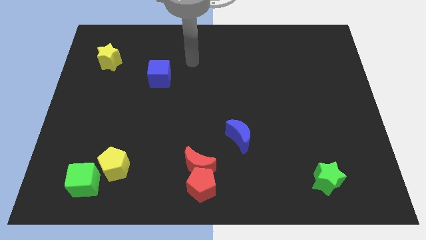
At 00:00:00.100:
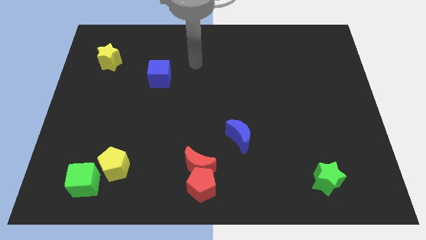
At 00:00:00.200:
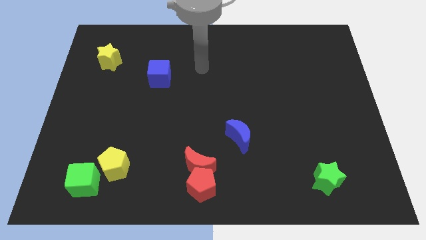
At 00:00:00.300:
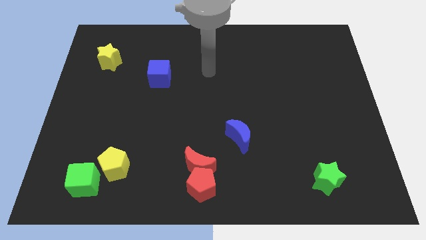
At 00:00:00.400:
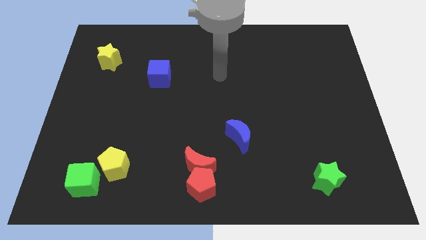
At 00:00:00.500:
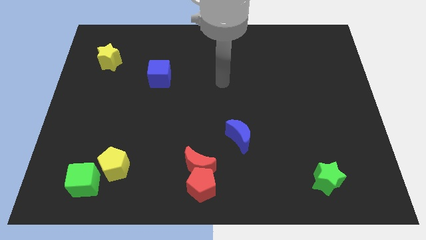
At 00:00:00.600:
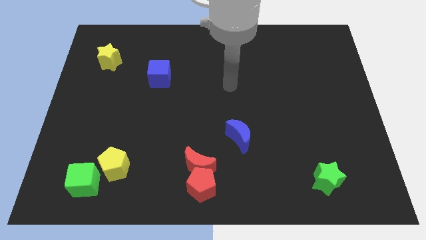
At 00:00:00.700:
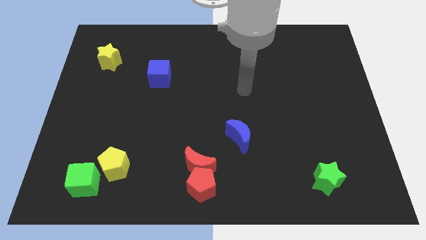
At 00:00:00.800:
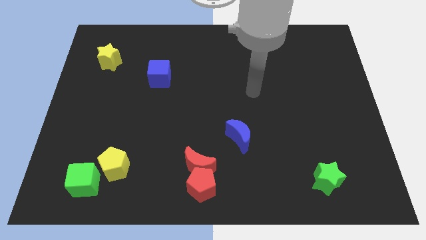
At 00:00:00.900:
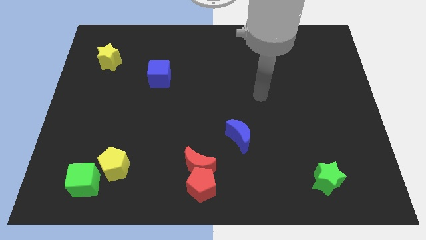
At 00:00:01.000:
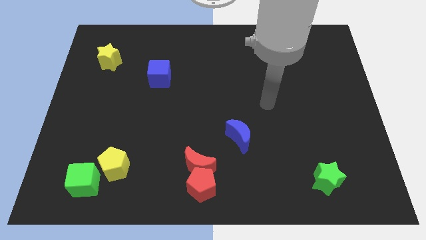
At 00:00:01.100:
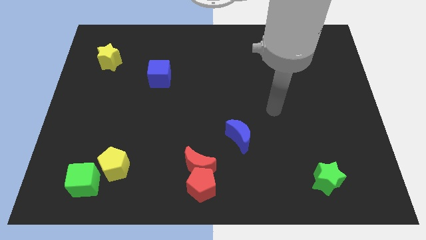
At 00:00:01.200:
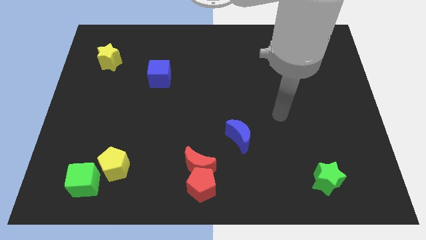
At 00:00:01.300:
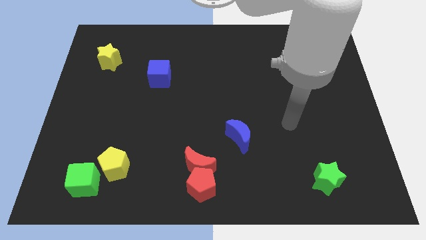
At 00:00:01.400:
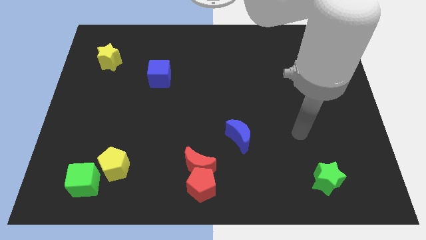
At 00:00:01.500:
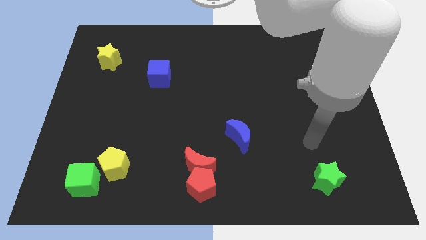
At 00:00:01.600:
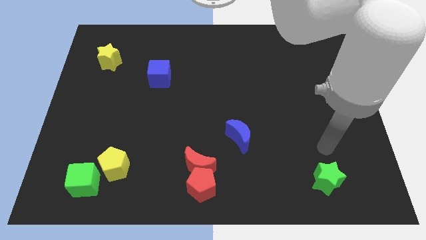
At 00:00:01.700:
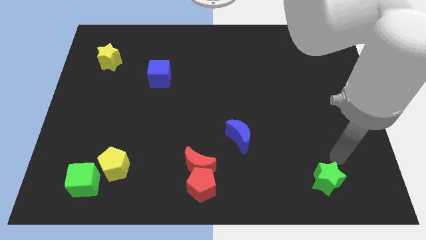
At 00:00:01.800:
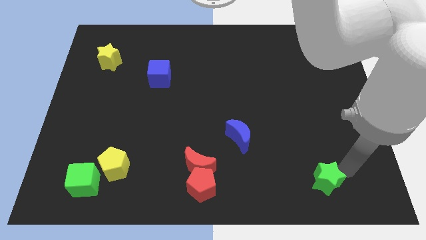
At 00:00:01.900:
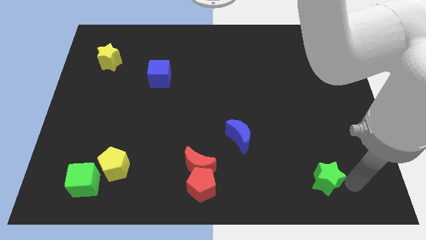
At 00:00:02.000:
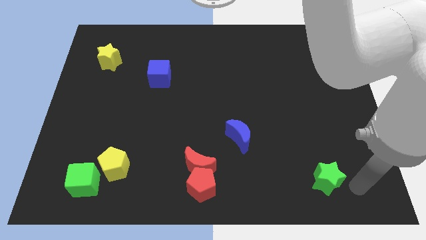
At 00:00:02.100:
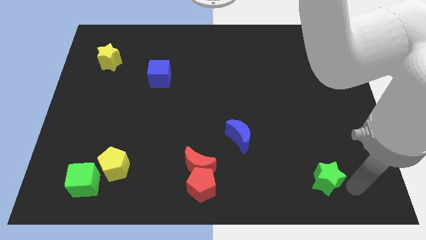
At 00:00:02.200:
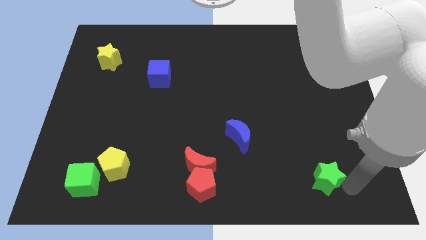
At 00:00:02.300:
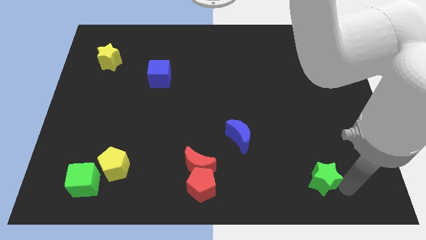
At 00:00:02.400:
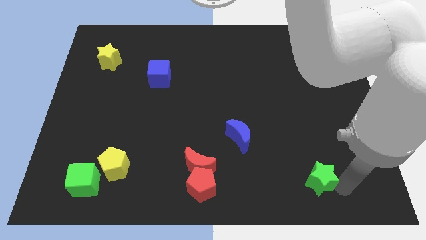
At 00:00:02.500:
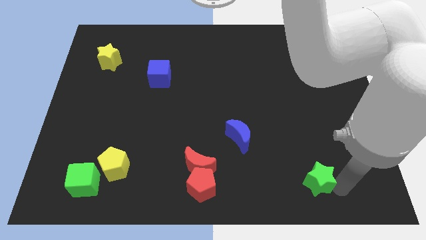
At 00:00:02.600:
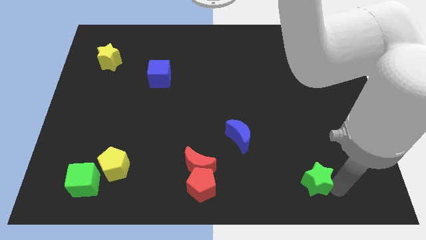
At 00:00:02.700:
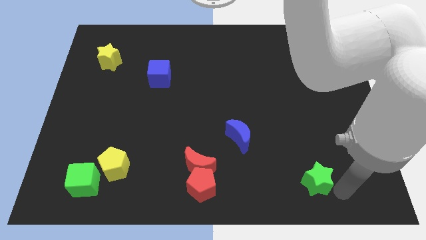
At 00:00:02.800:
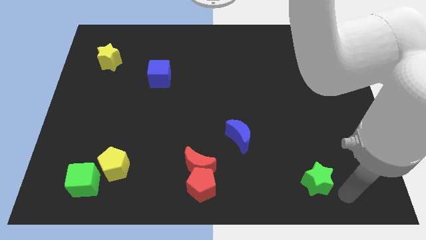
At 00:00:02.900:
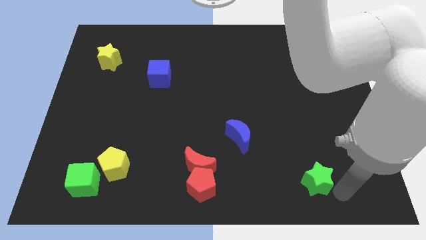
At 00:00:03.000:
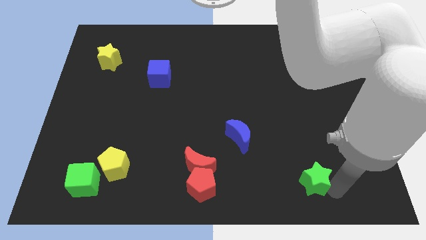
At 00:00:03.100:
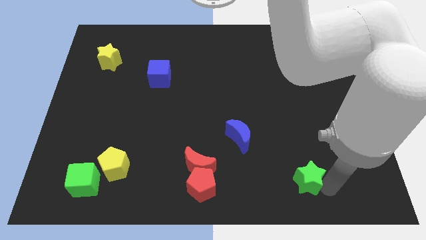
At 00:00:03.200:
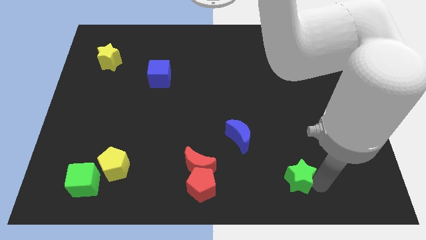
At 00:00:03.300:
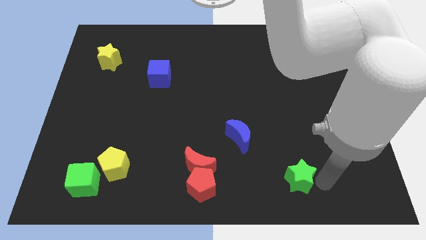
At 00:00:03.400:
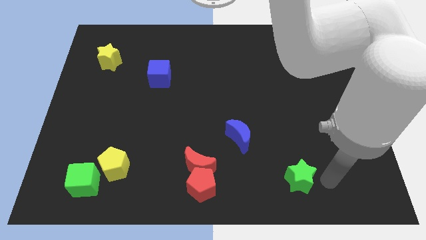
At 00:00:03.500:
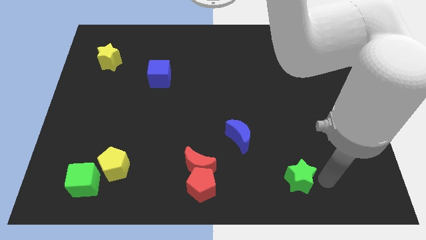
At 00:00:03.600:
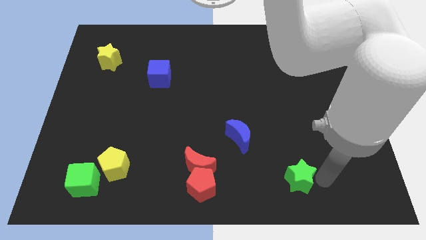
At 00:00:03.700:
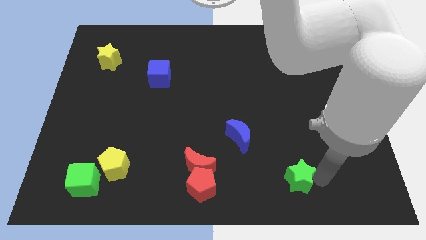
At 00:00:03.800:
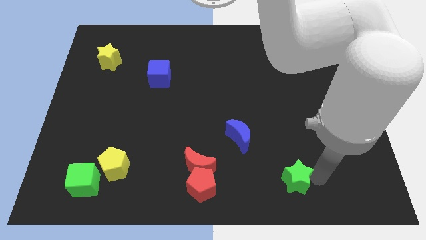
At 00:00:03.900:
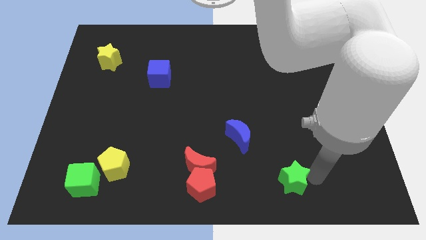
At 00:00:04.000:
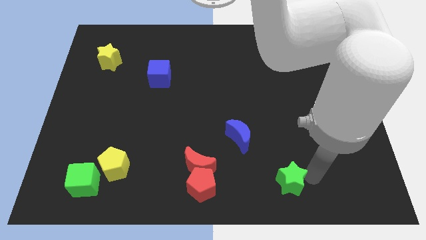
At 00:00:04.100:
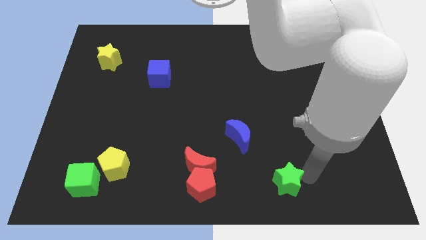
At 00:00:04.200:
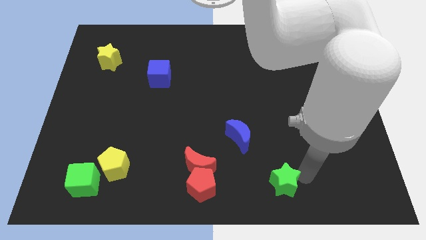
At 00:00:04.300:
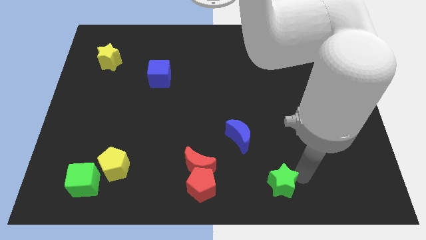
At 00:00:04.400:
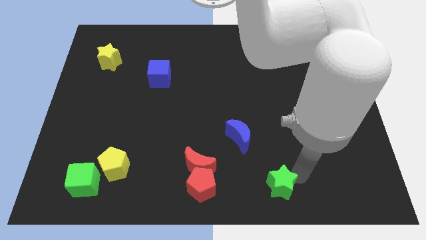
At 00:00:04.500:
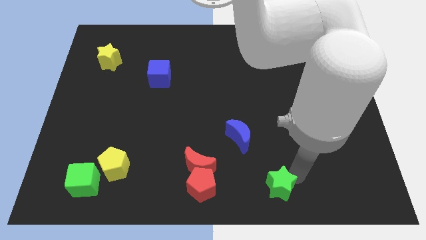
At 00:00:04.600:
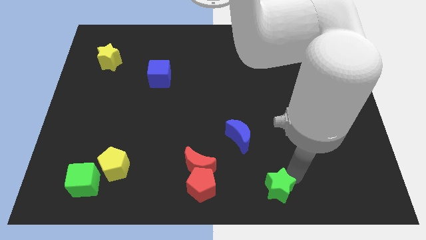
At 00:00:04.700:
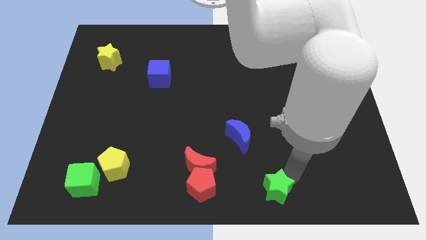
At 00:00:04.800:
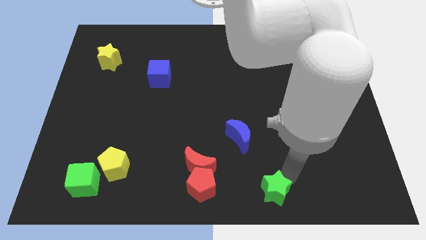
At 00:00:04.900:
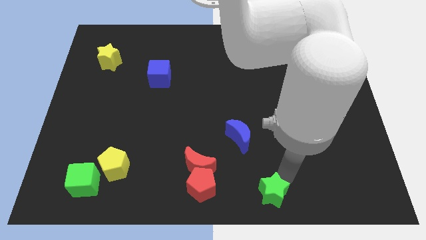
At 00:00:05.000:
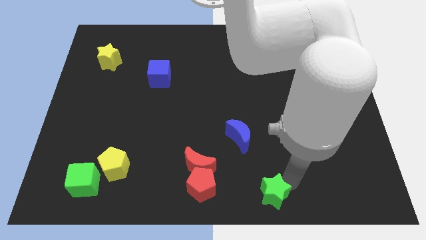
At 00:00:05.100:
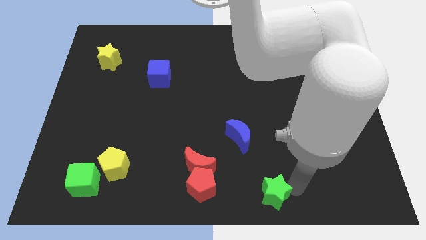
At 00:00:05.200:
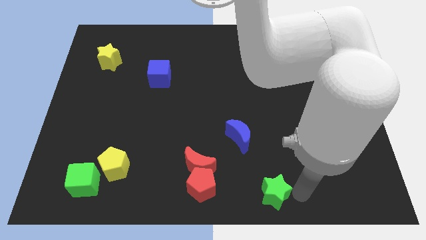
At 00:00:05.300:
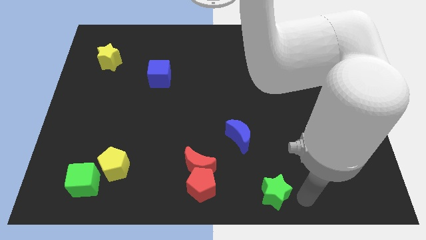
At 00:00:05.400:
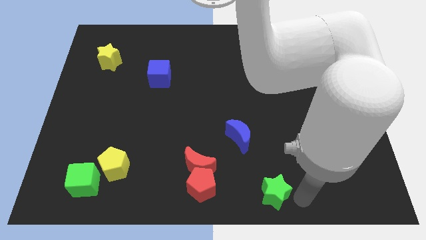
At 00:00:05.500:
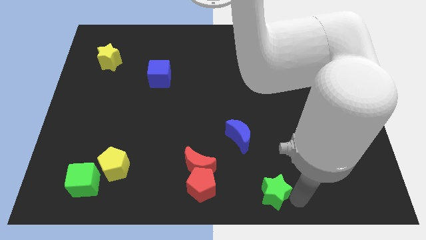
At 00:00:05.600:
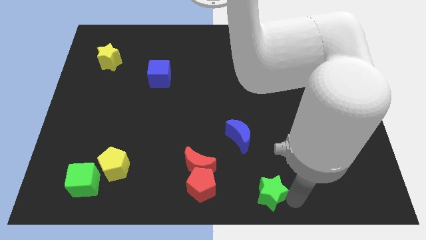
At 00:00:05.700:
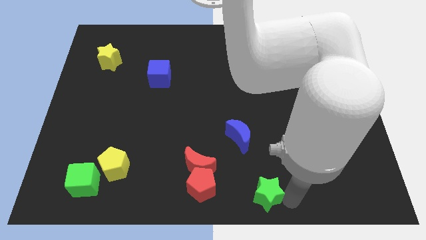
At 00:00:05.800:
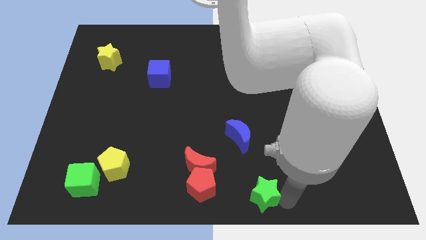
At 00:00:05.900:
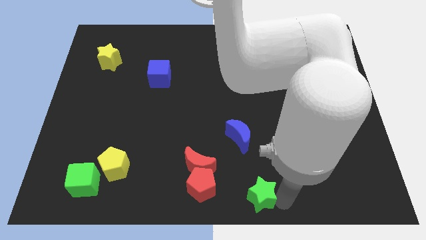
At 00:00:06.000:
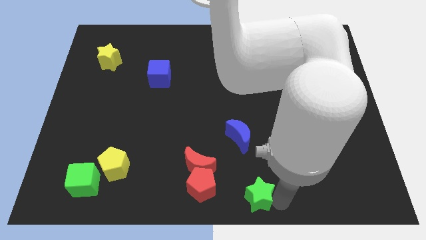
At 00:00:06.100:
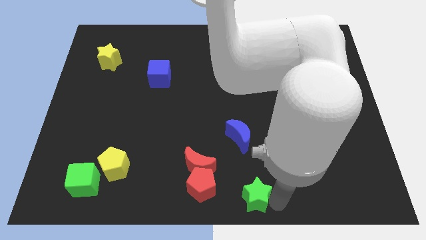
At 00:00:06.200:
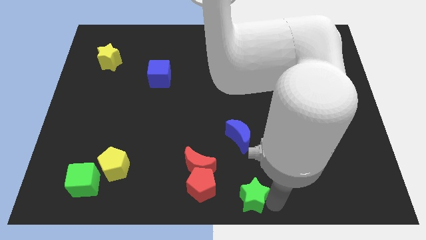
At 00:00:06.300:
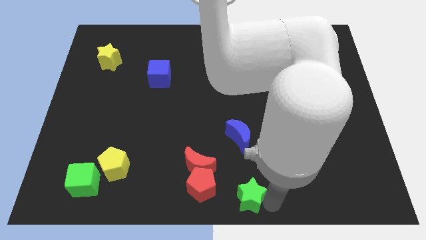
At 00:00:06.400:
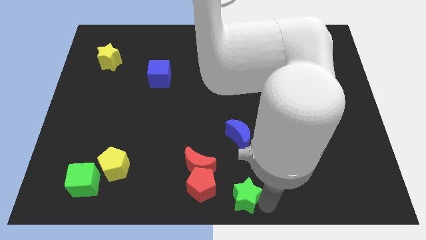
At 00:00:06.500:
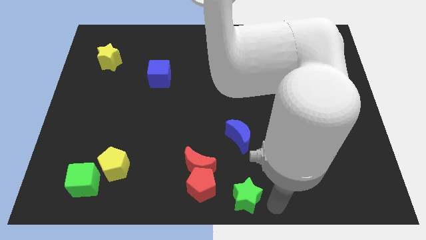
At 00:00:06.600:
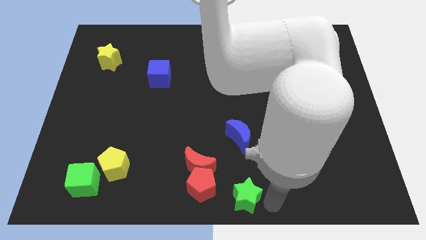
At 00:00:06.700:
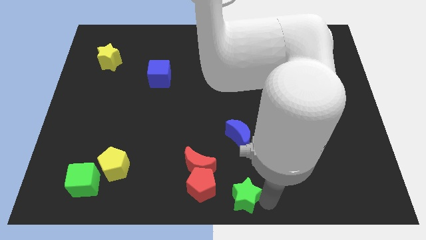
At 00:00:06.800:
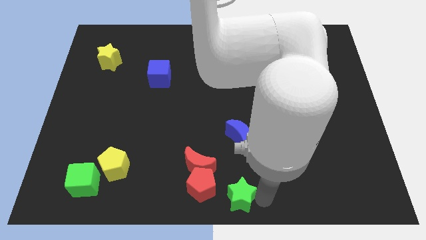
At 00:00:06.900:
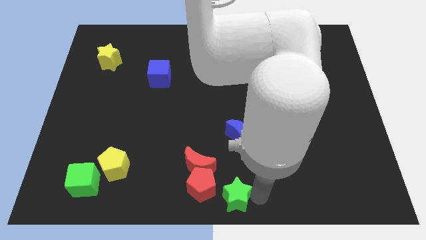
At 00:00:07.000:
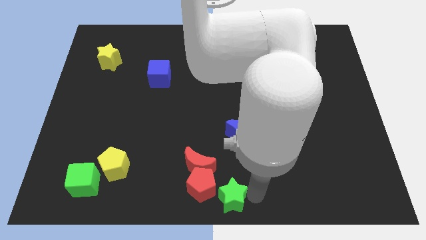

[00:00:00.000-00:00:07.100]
slide the green star next to the red pentagon
